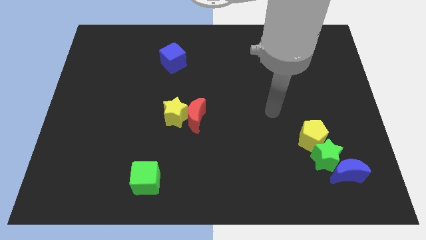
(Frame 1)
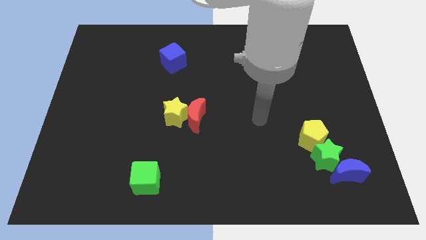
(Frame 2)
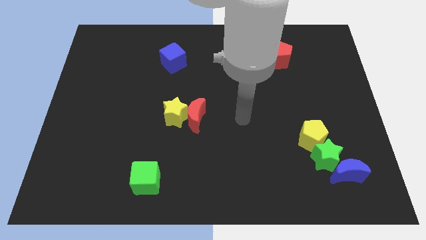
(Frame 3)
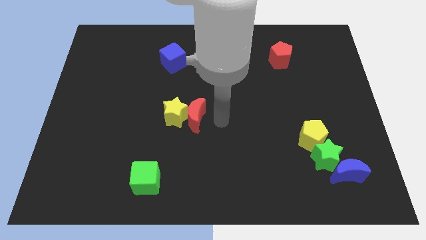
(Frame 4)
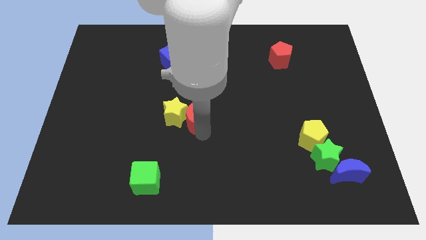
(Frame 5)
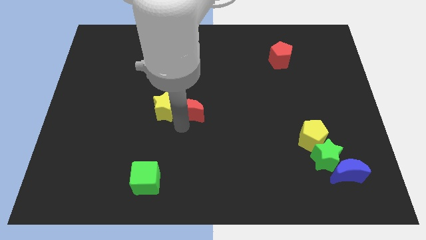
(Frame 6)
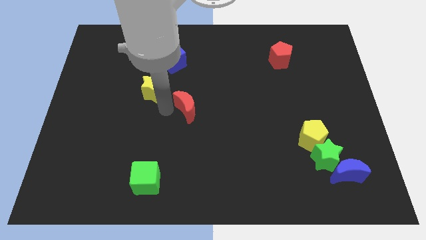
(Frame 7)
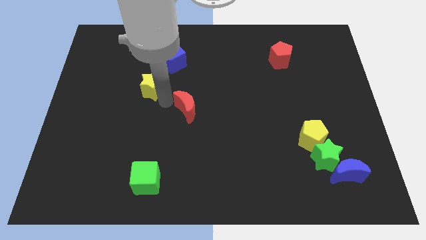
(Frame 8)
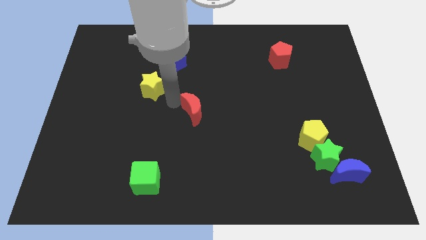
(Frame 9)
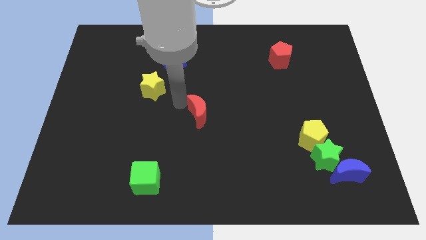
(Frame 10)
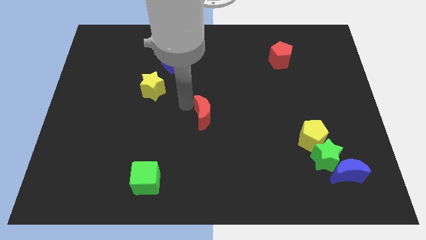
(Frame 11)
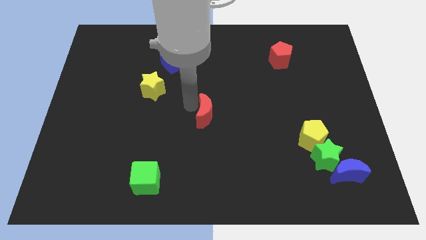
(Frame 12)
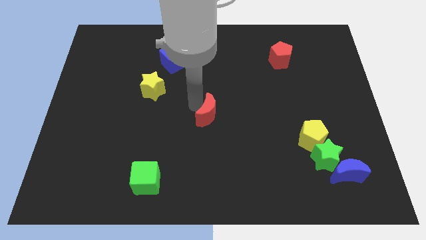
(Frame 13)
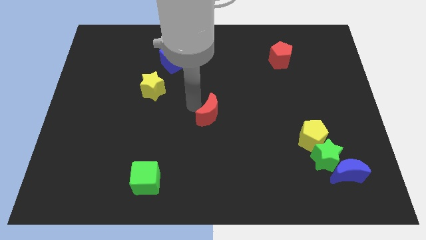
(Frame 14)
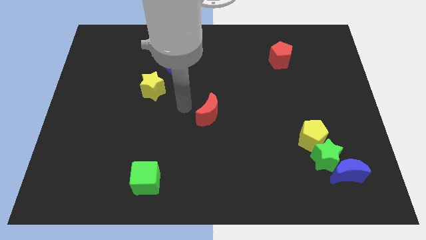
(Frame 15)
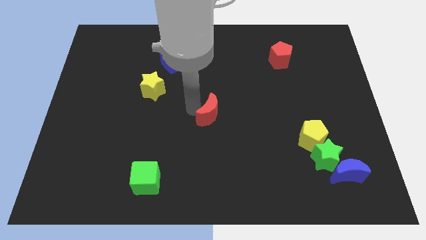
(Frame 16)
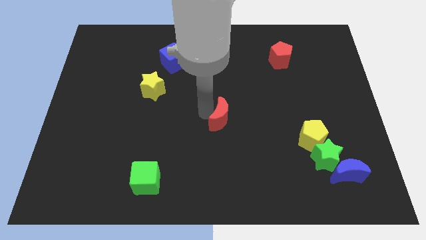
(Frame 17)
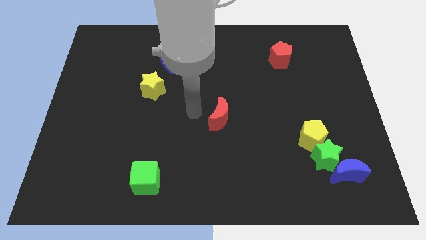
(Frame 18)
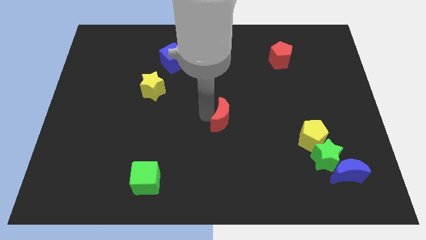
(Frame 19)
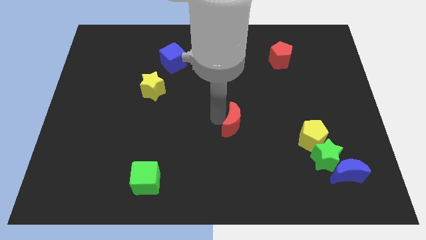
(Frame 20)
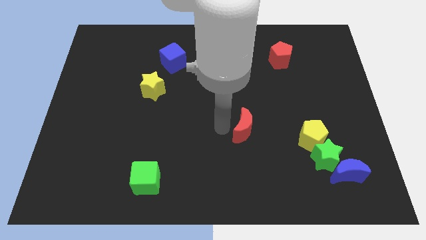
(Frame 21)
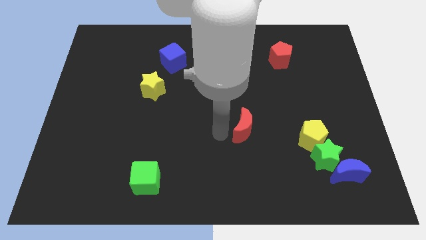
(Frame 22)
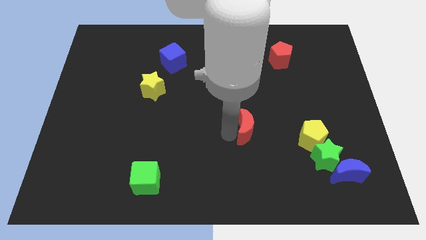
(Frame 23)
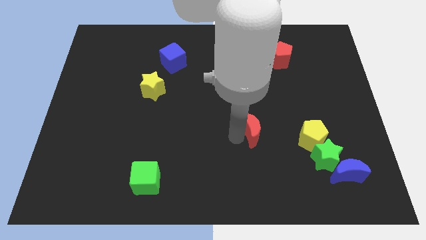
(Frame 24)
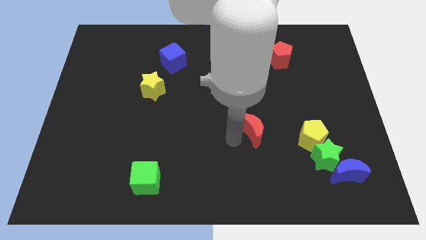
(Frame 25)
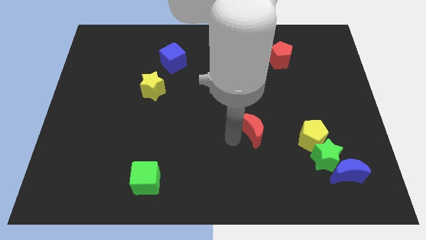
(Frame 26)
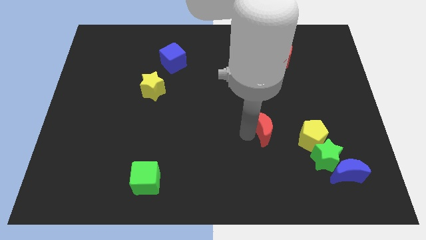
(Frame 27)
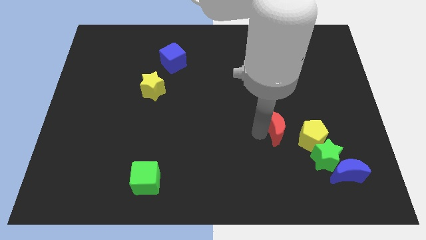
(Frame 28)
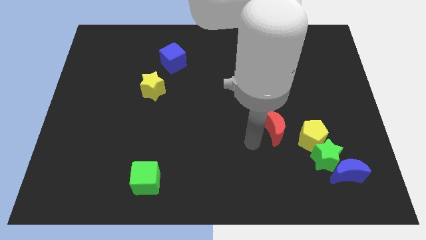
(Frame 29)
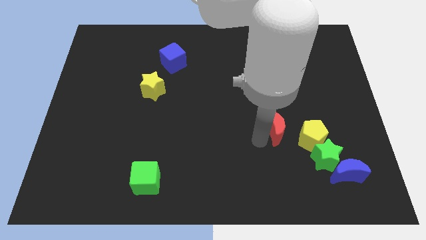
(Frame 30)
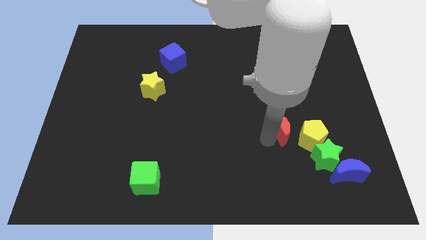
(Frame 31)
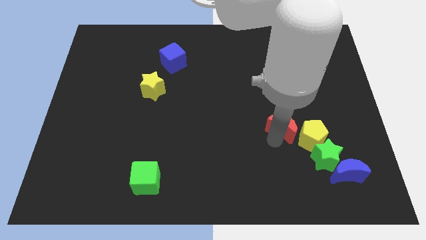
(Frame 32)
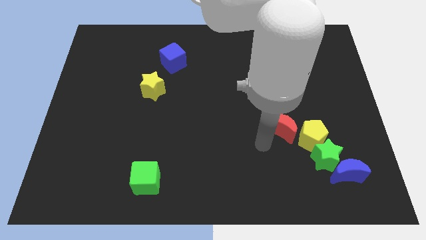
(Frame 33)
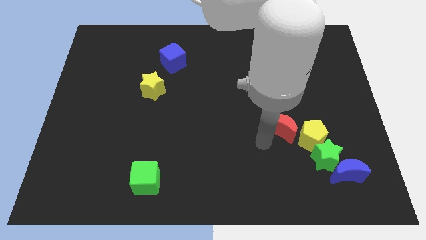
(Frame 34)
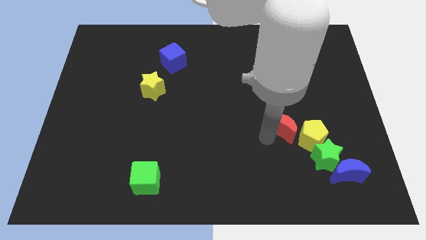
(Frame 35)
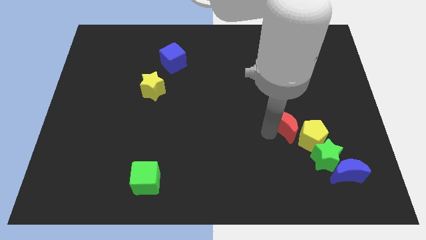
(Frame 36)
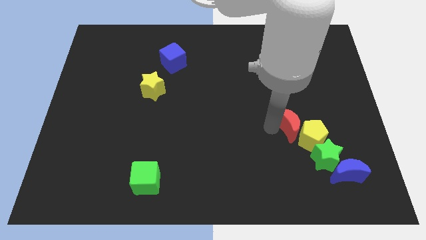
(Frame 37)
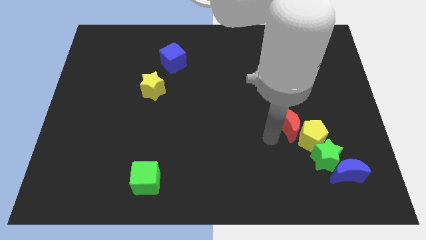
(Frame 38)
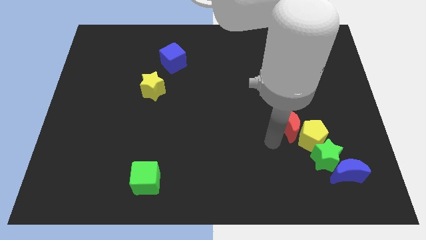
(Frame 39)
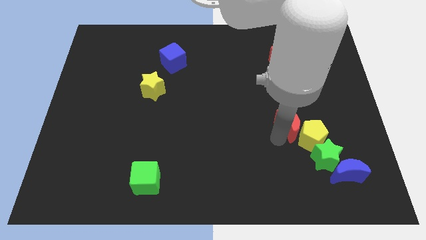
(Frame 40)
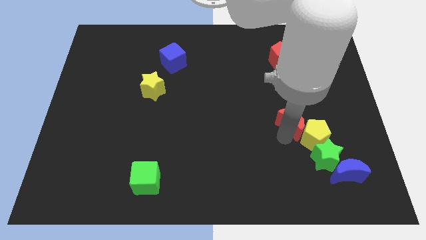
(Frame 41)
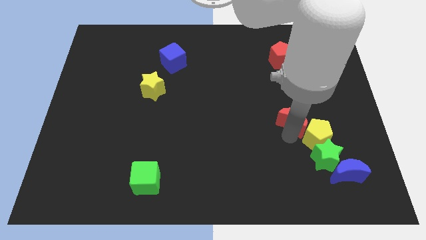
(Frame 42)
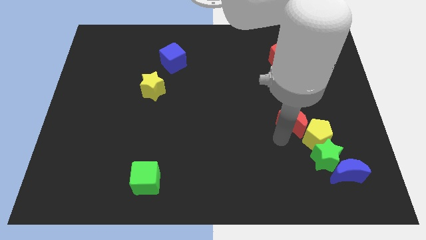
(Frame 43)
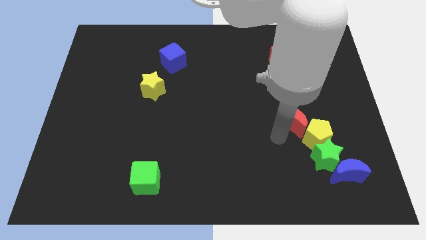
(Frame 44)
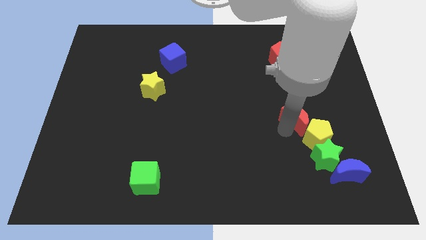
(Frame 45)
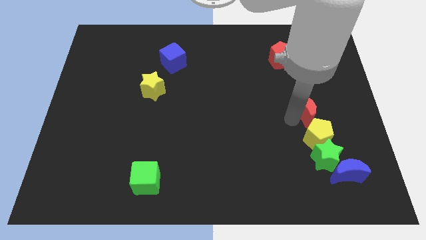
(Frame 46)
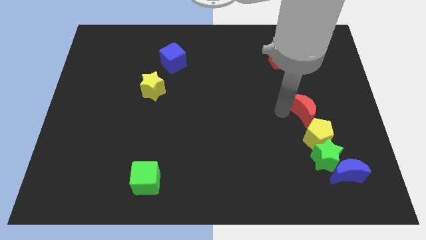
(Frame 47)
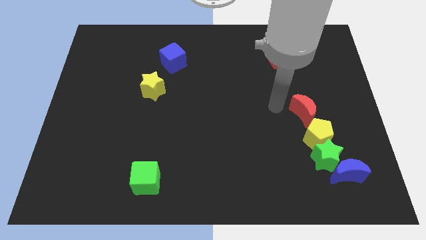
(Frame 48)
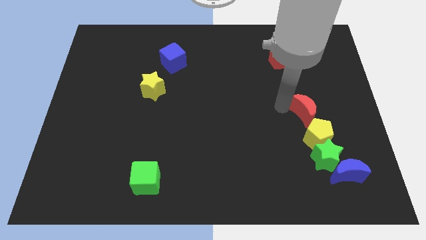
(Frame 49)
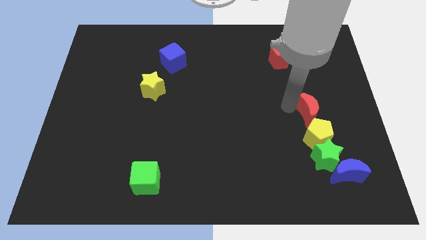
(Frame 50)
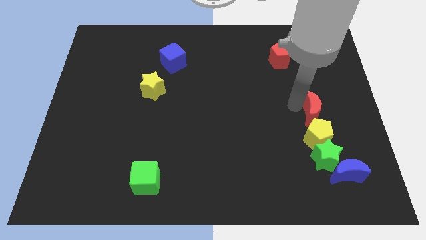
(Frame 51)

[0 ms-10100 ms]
slide the red moon to the top right of the yellow pentagon

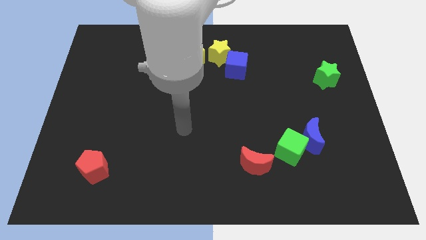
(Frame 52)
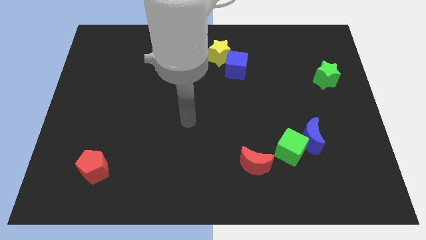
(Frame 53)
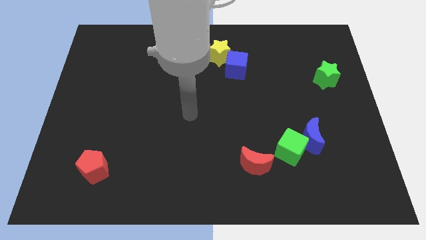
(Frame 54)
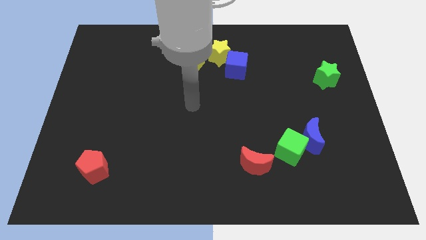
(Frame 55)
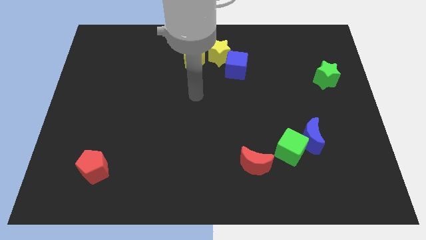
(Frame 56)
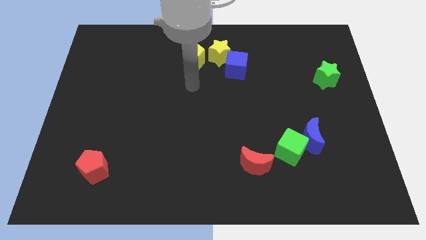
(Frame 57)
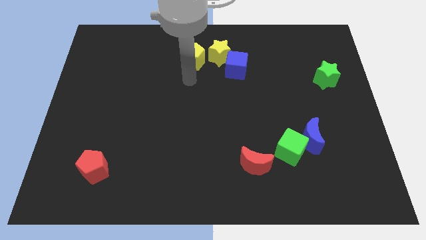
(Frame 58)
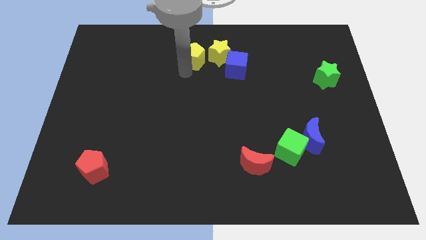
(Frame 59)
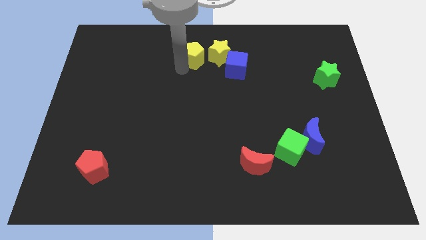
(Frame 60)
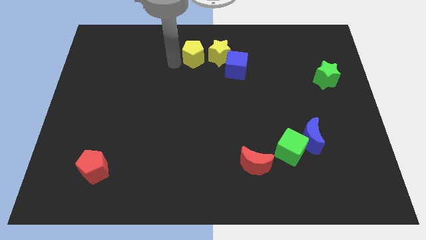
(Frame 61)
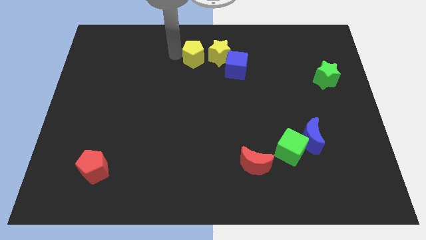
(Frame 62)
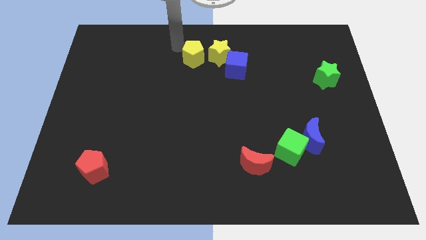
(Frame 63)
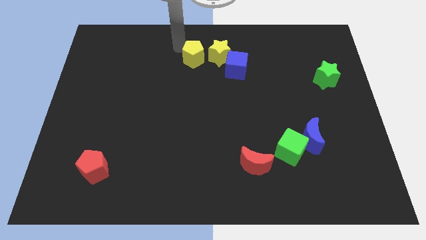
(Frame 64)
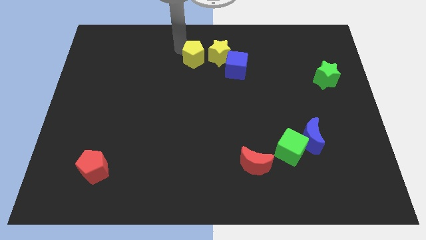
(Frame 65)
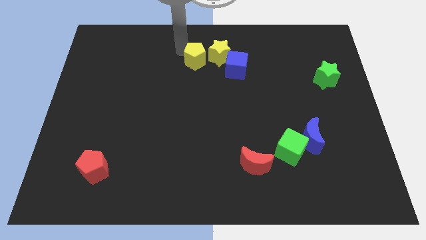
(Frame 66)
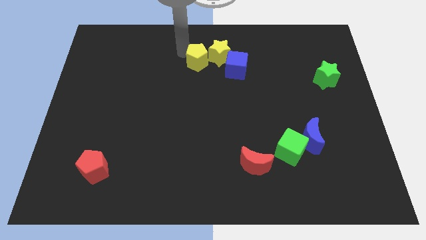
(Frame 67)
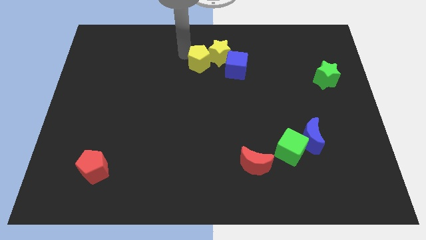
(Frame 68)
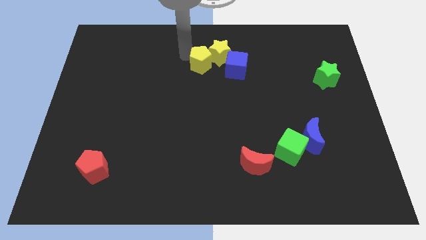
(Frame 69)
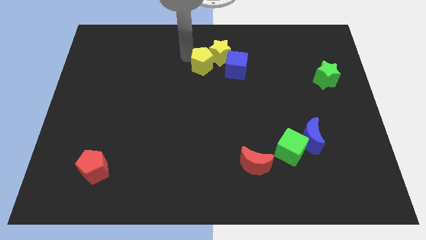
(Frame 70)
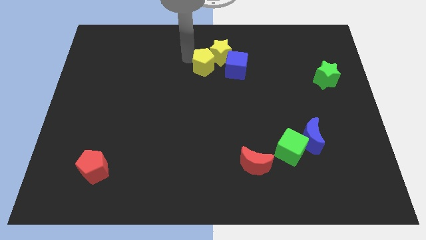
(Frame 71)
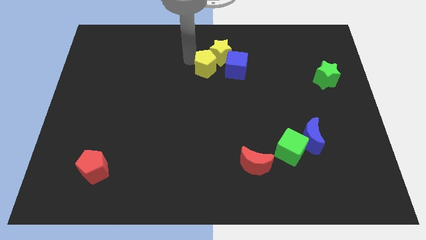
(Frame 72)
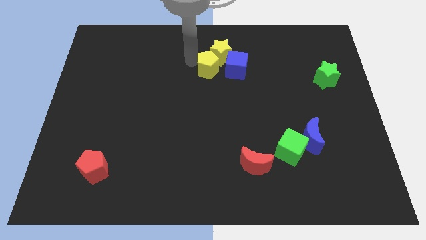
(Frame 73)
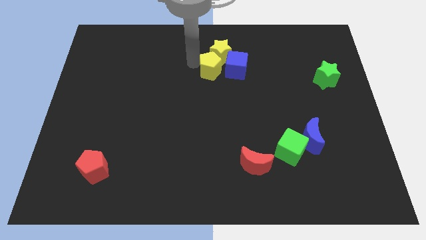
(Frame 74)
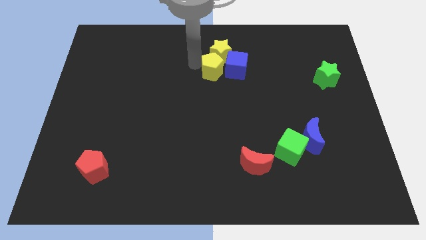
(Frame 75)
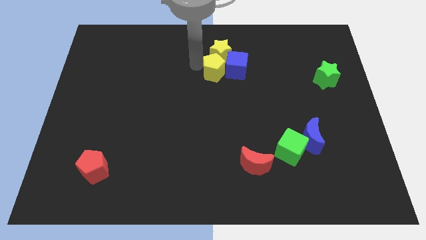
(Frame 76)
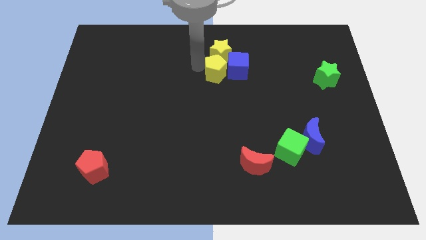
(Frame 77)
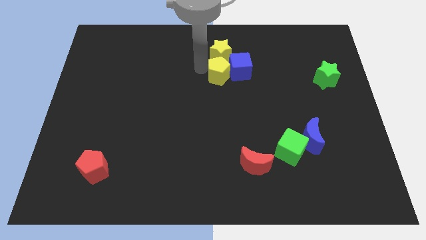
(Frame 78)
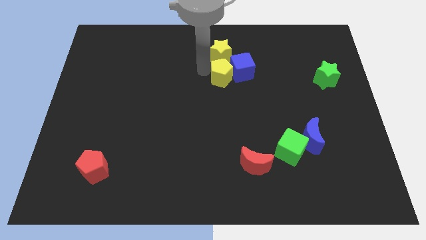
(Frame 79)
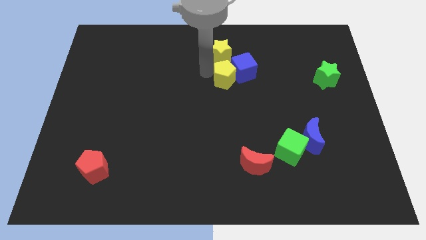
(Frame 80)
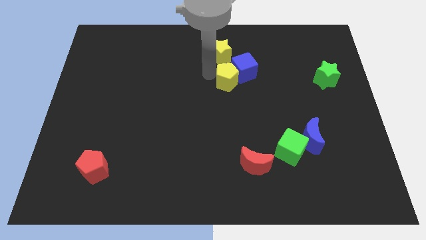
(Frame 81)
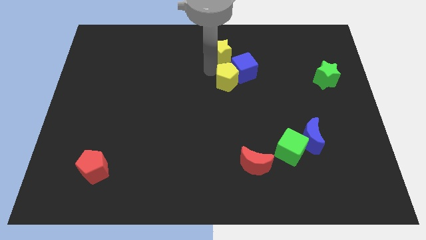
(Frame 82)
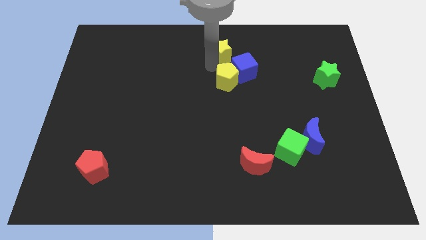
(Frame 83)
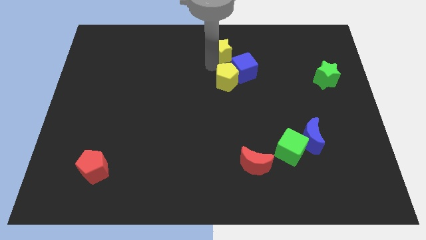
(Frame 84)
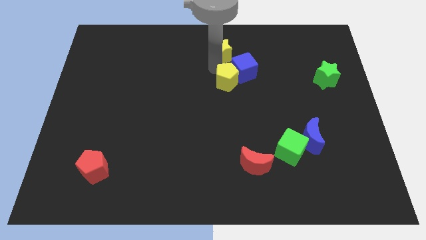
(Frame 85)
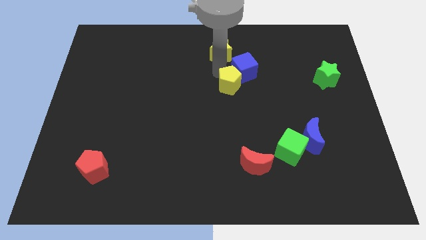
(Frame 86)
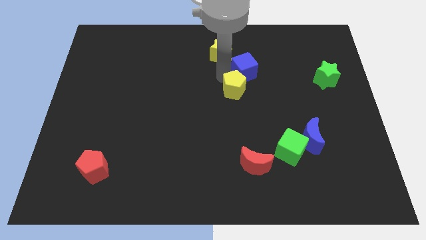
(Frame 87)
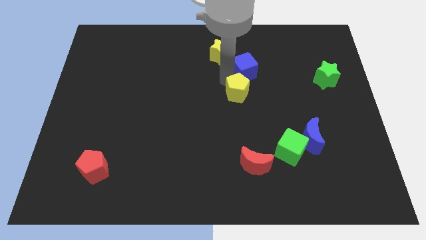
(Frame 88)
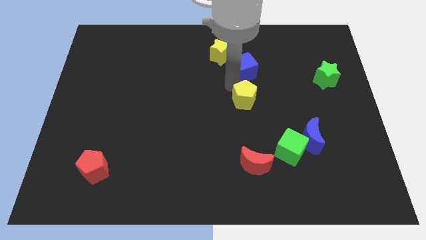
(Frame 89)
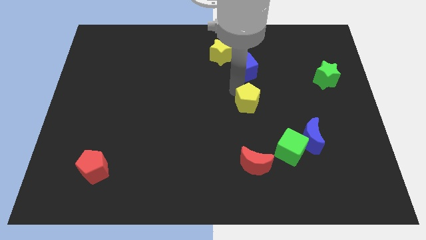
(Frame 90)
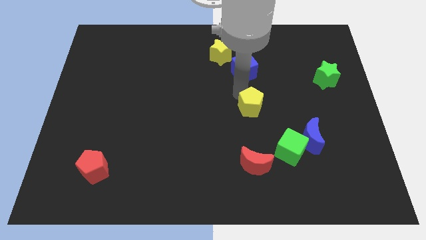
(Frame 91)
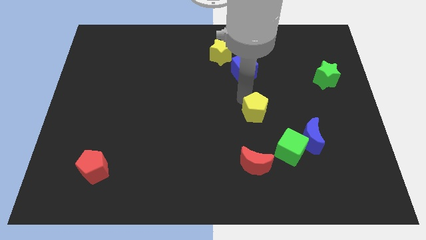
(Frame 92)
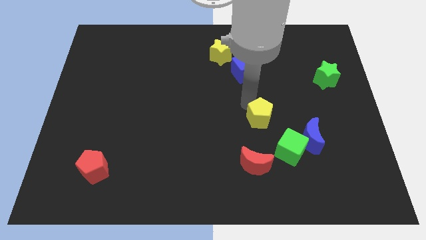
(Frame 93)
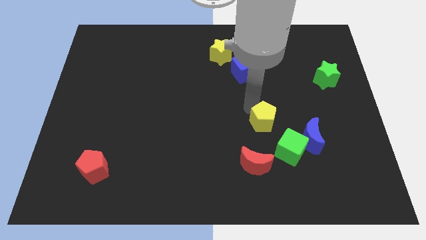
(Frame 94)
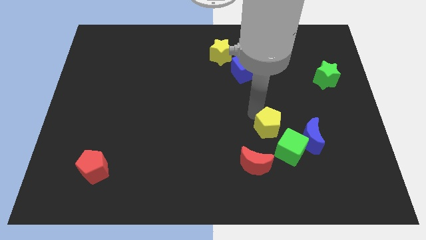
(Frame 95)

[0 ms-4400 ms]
push the yellow pentagon to the top right of the red moon
